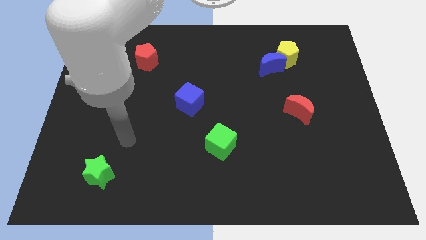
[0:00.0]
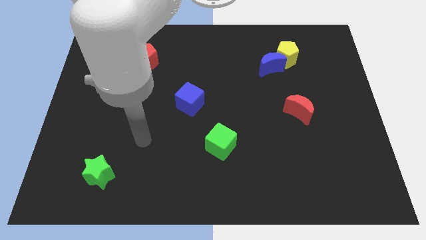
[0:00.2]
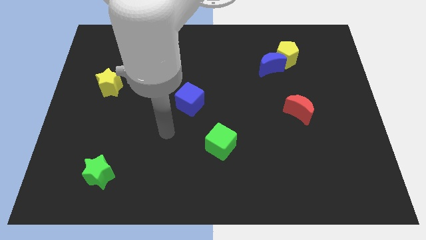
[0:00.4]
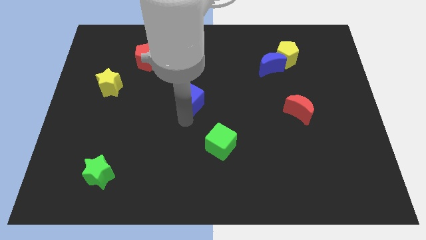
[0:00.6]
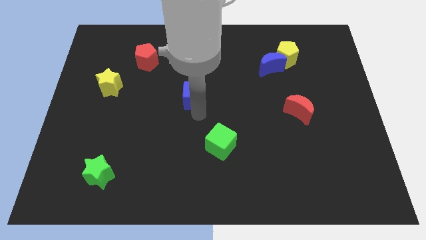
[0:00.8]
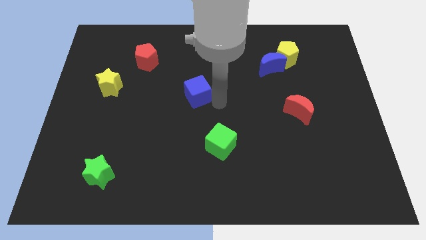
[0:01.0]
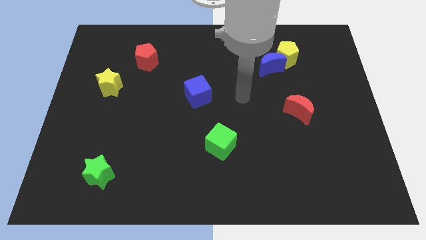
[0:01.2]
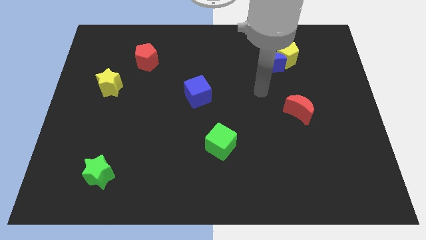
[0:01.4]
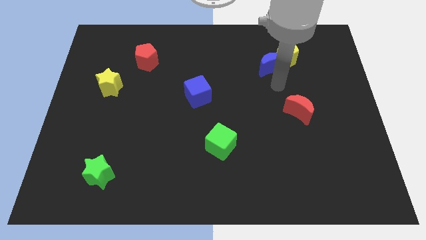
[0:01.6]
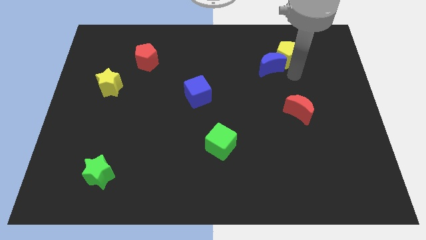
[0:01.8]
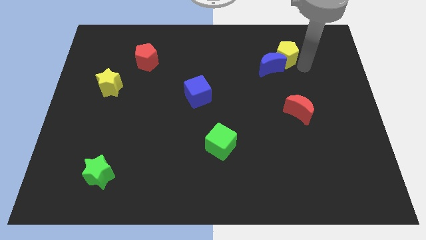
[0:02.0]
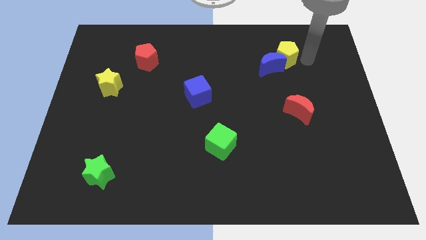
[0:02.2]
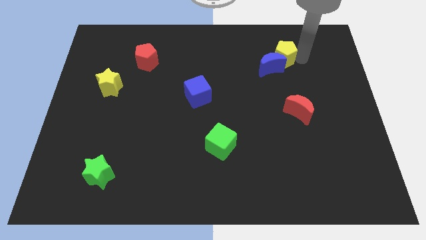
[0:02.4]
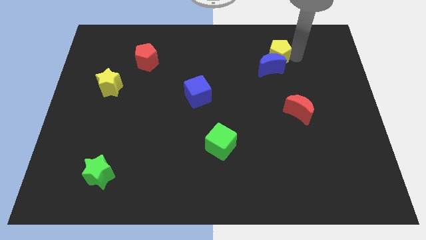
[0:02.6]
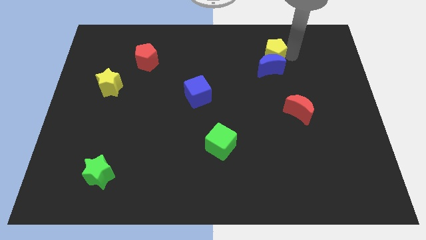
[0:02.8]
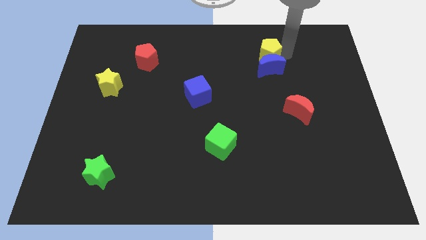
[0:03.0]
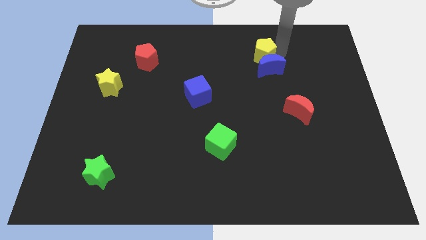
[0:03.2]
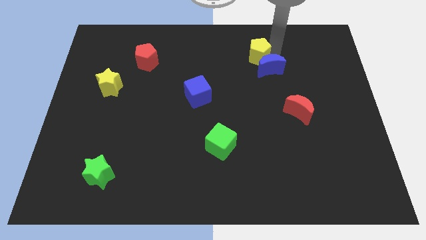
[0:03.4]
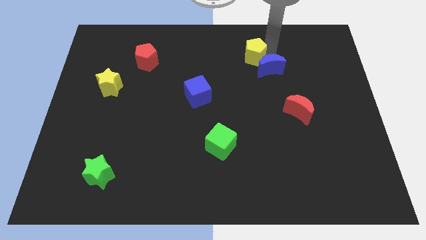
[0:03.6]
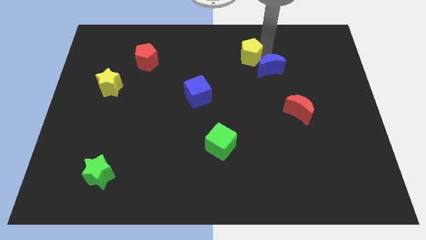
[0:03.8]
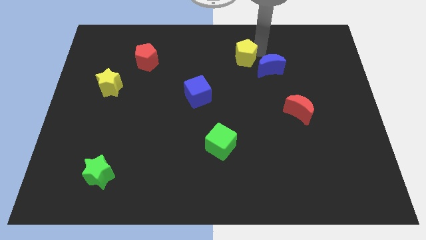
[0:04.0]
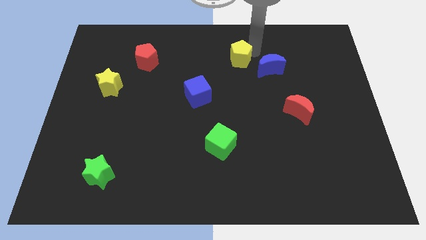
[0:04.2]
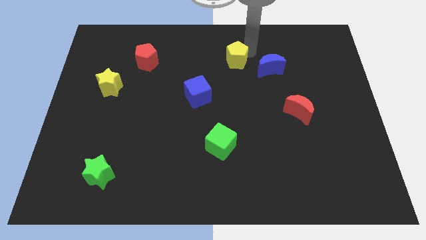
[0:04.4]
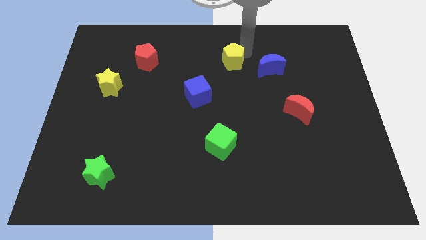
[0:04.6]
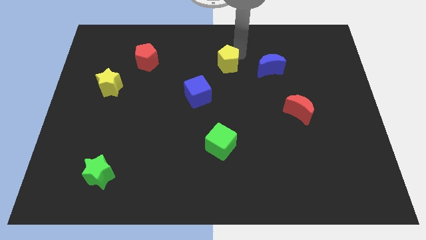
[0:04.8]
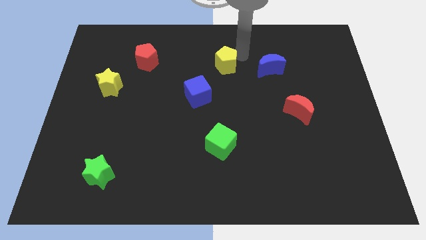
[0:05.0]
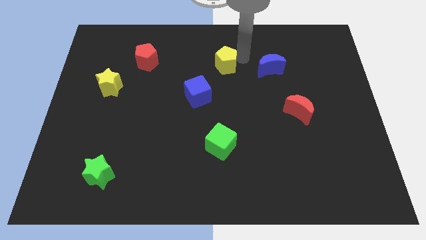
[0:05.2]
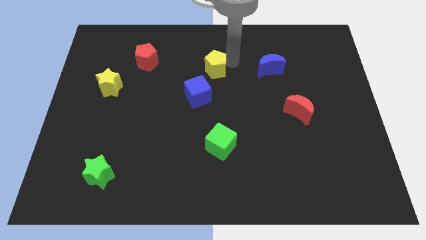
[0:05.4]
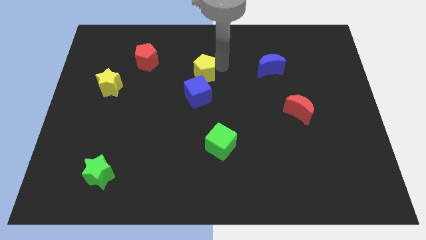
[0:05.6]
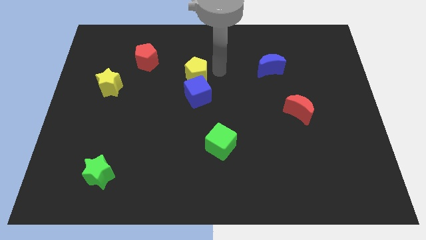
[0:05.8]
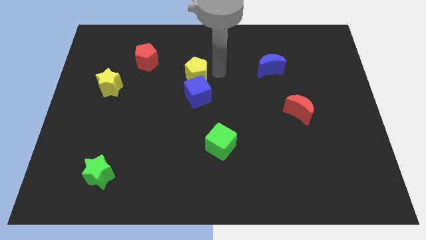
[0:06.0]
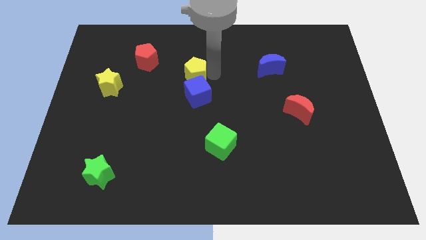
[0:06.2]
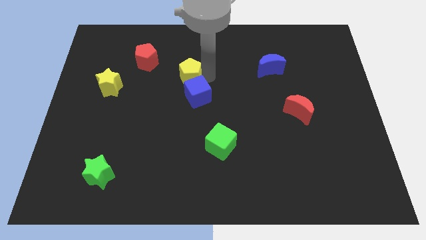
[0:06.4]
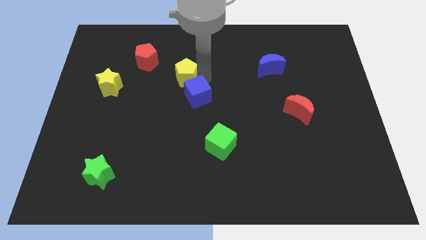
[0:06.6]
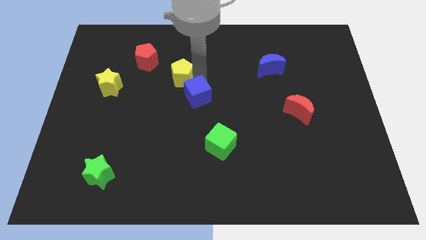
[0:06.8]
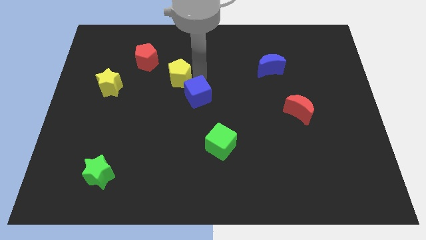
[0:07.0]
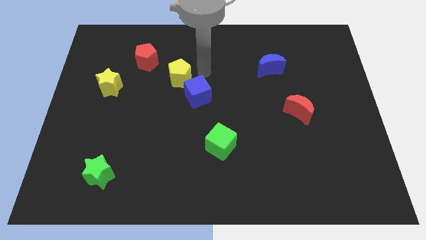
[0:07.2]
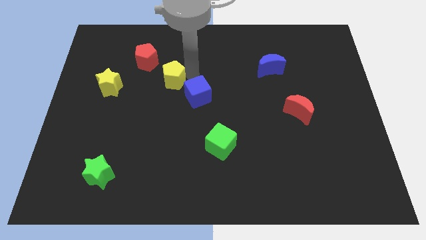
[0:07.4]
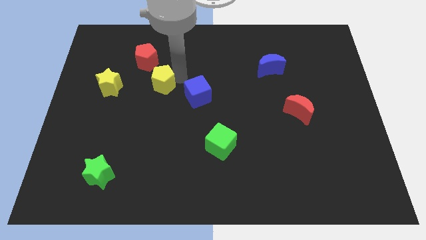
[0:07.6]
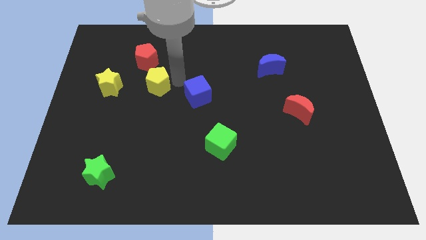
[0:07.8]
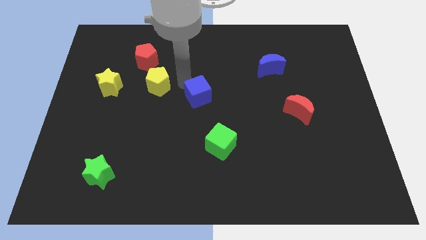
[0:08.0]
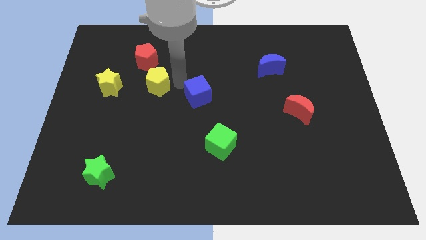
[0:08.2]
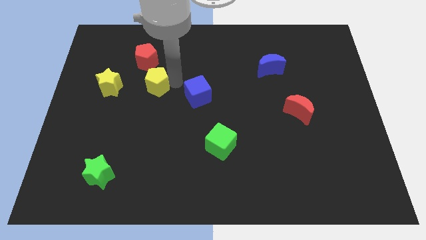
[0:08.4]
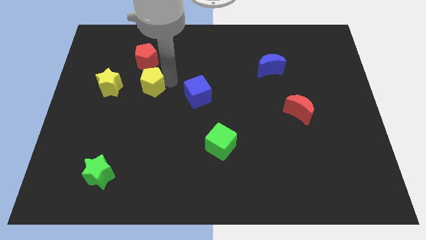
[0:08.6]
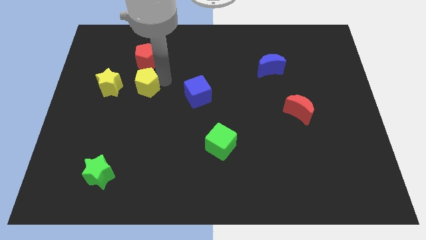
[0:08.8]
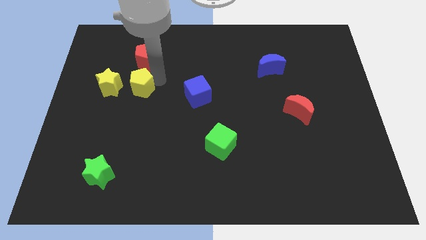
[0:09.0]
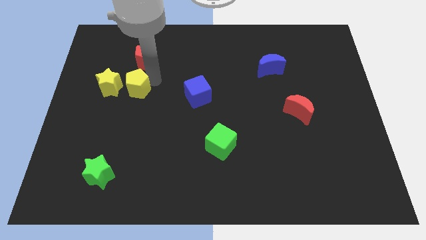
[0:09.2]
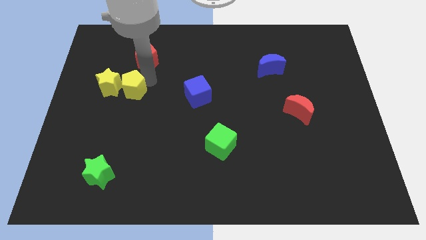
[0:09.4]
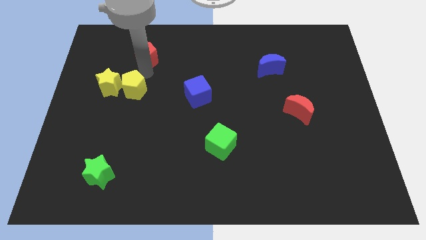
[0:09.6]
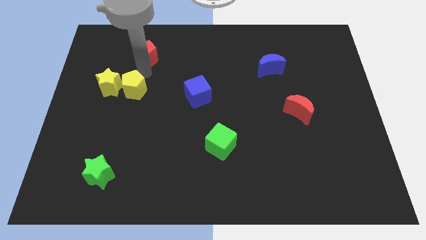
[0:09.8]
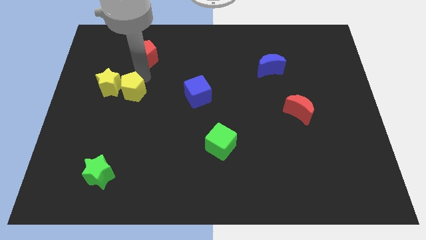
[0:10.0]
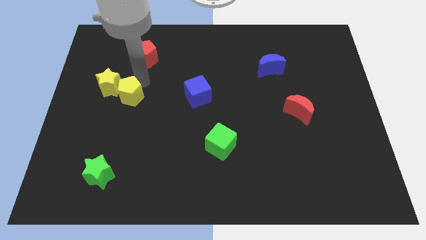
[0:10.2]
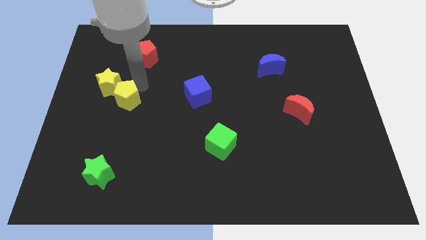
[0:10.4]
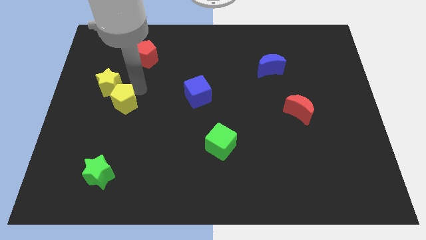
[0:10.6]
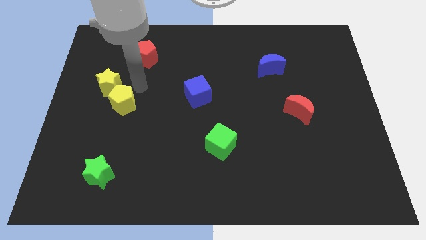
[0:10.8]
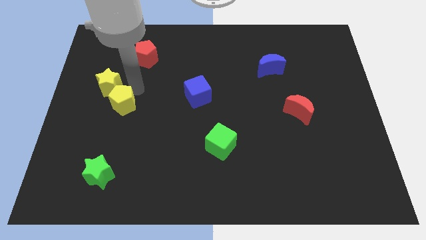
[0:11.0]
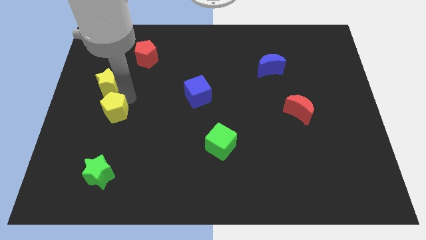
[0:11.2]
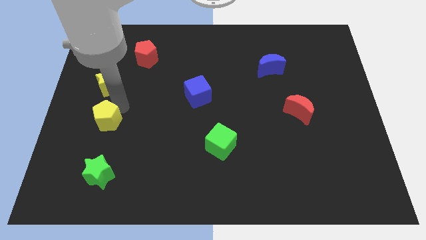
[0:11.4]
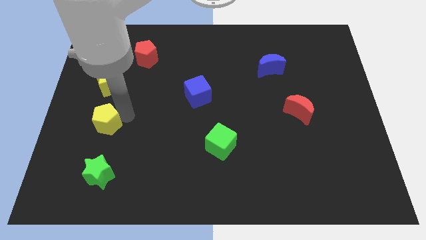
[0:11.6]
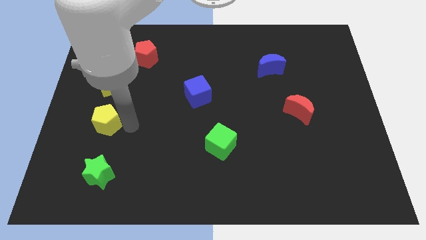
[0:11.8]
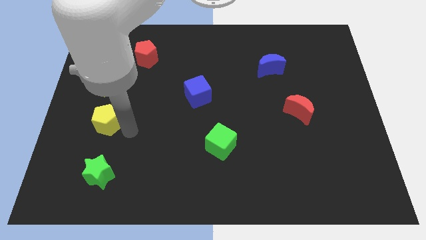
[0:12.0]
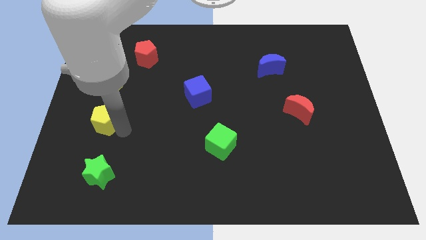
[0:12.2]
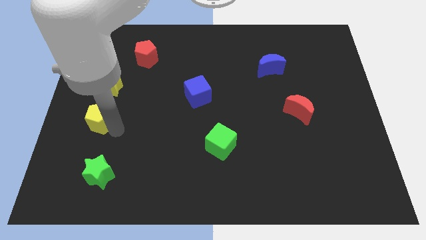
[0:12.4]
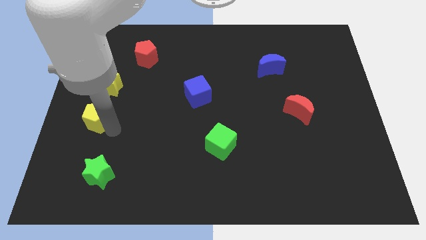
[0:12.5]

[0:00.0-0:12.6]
put the yellow pentagon to the center left

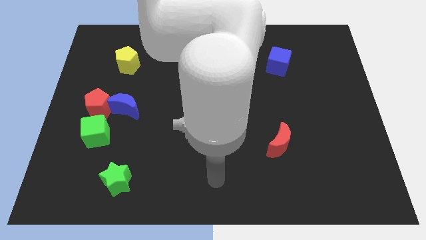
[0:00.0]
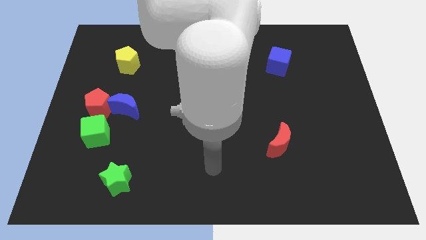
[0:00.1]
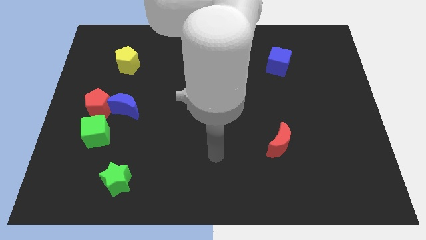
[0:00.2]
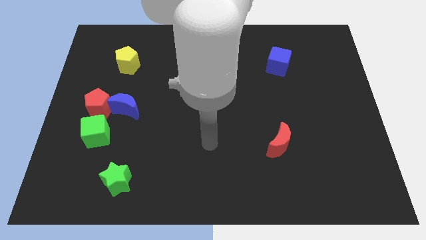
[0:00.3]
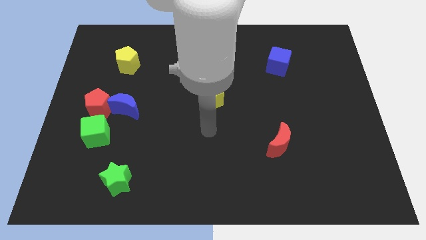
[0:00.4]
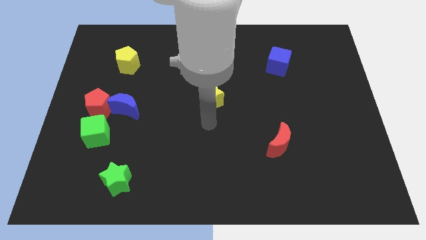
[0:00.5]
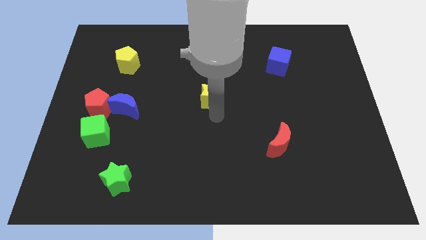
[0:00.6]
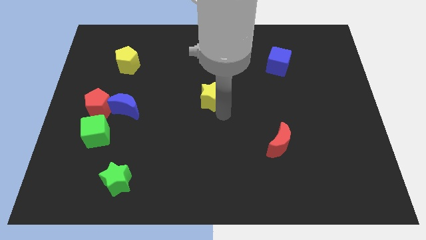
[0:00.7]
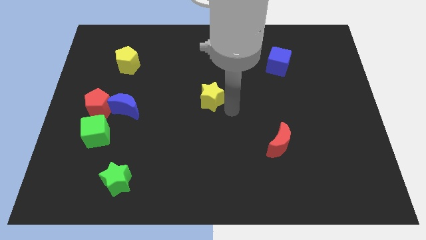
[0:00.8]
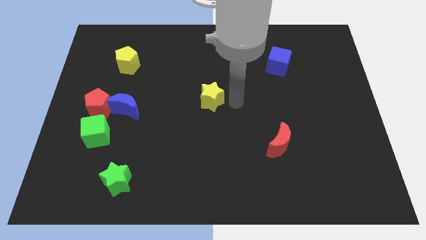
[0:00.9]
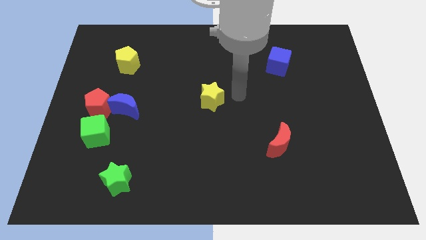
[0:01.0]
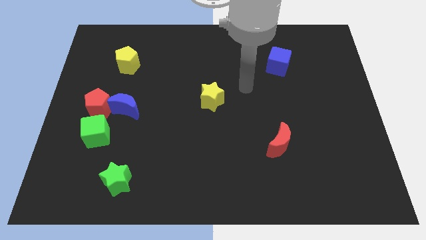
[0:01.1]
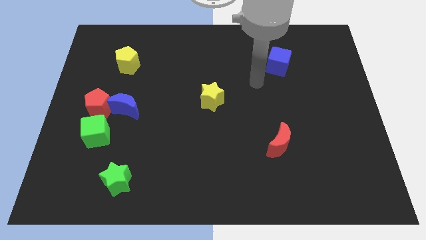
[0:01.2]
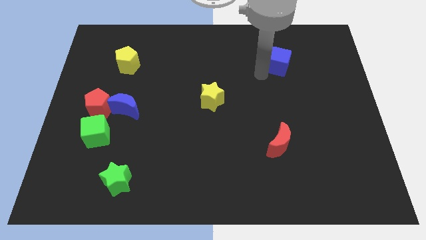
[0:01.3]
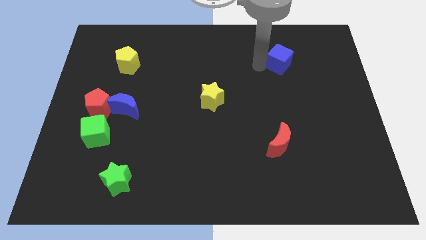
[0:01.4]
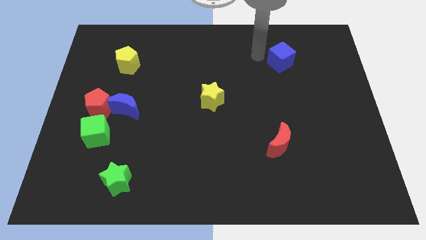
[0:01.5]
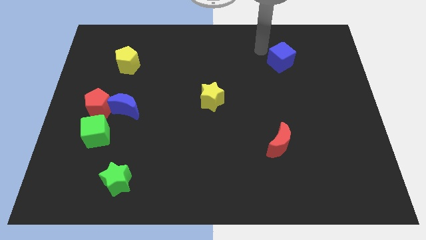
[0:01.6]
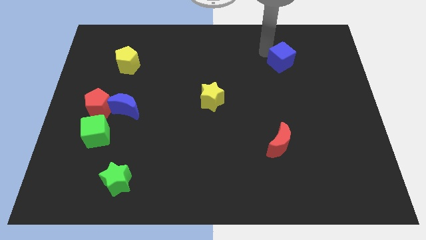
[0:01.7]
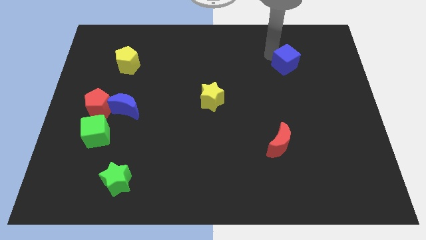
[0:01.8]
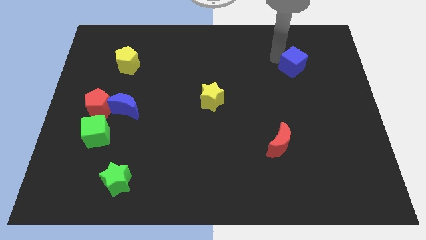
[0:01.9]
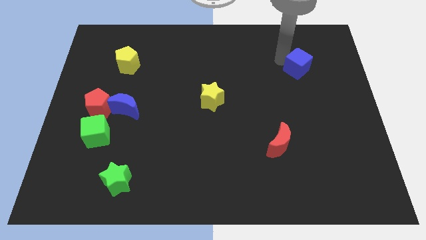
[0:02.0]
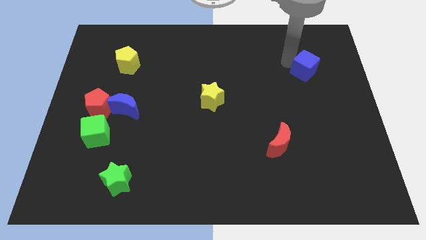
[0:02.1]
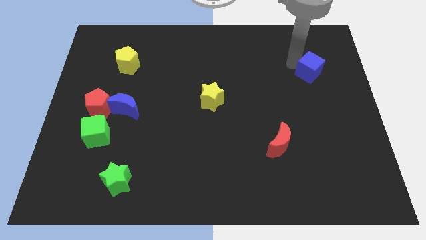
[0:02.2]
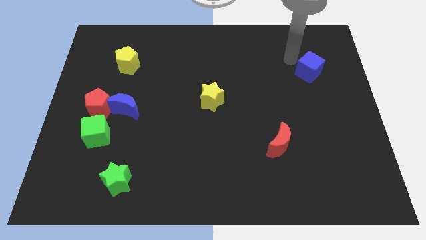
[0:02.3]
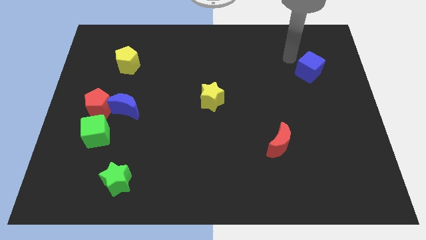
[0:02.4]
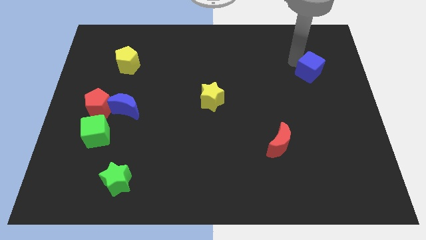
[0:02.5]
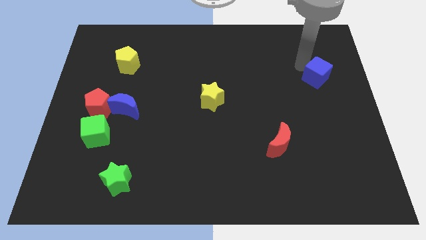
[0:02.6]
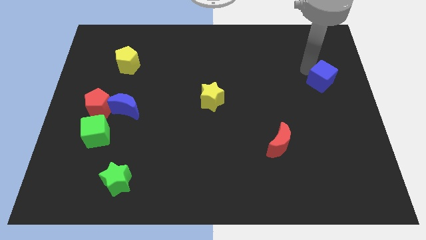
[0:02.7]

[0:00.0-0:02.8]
slide the blue cube to the center right
